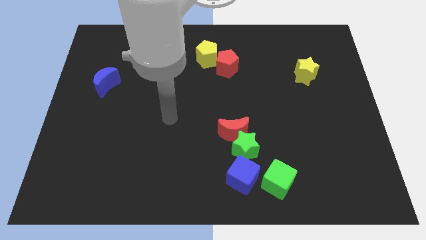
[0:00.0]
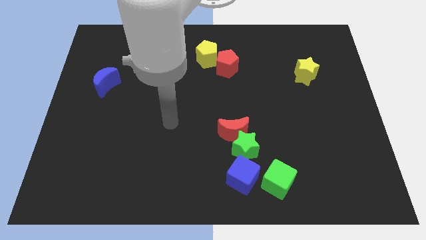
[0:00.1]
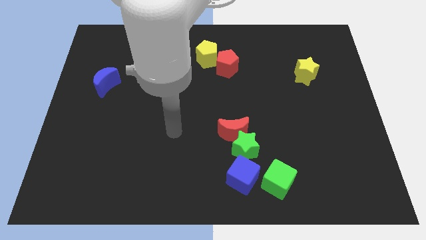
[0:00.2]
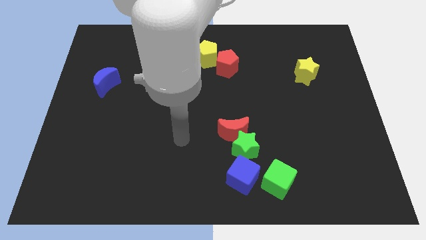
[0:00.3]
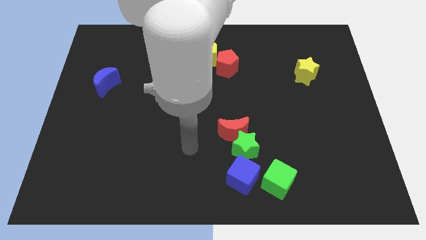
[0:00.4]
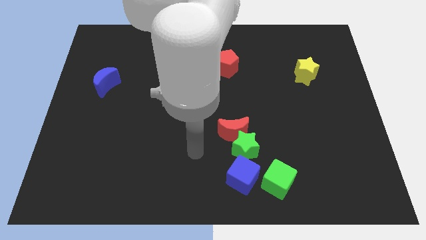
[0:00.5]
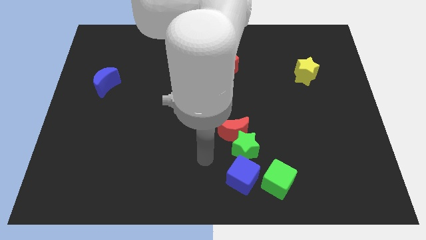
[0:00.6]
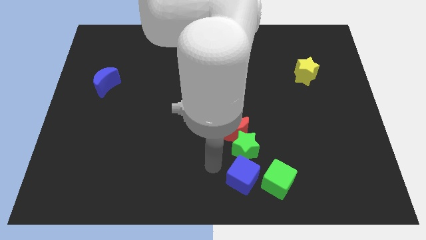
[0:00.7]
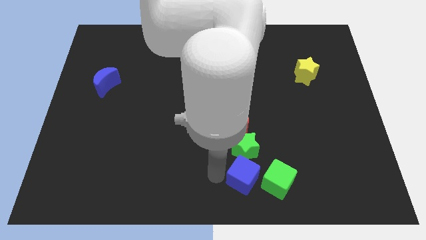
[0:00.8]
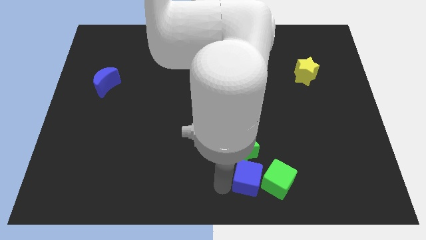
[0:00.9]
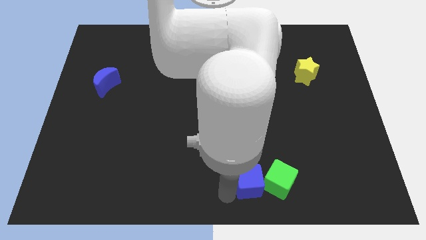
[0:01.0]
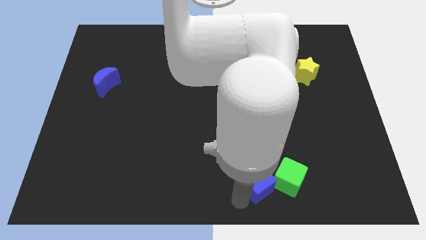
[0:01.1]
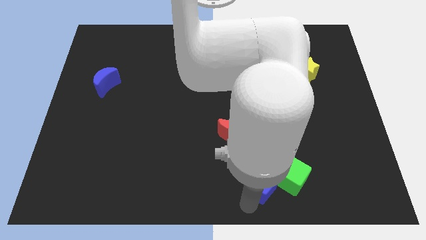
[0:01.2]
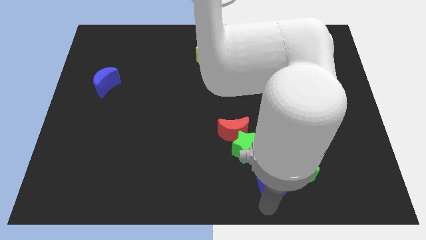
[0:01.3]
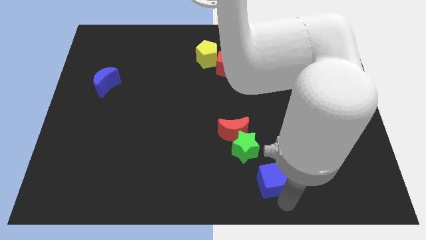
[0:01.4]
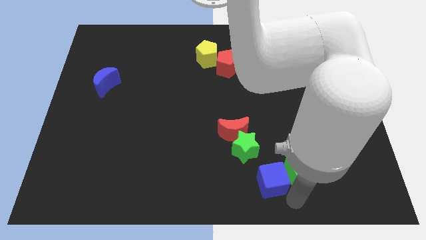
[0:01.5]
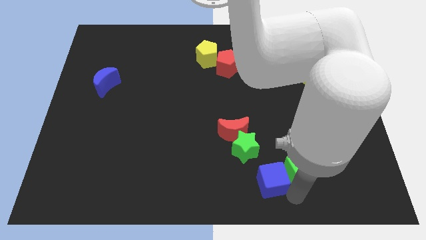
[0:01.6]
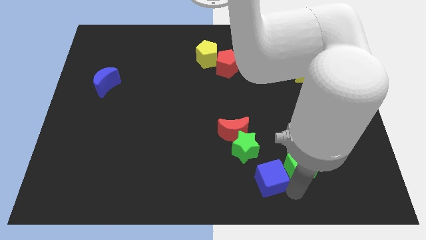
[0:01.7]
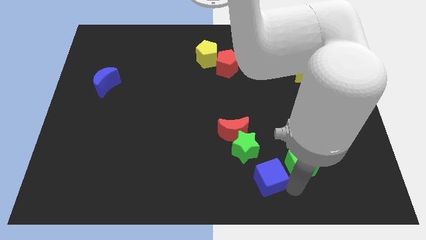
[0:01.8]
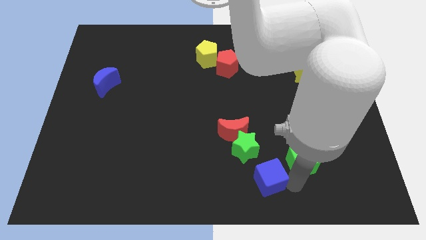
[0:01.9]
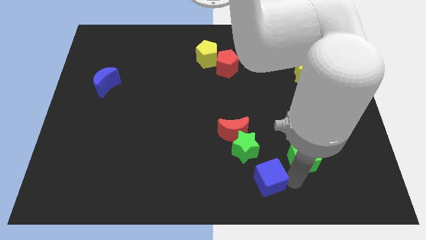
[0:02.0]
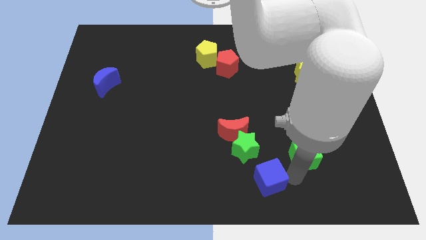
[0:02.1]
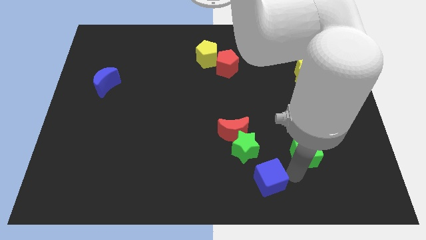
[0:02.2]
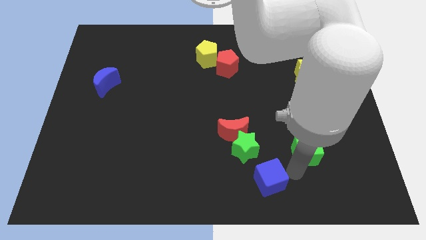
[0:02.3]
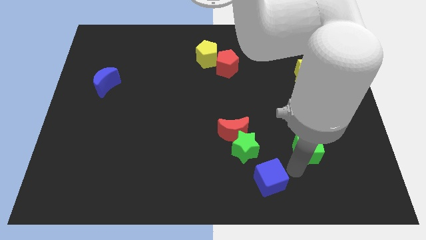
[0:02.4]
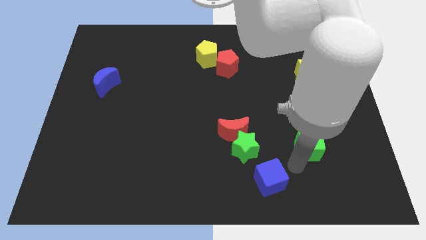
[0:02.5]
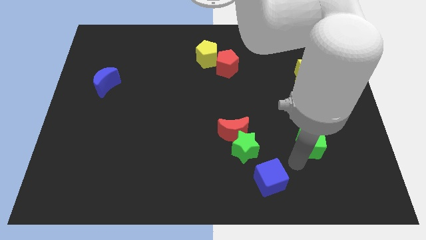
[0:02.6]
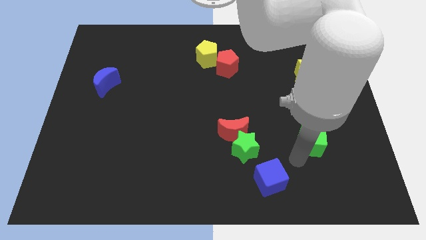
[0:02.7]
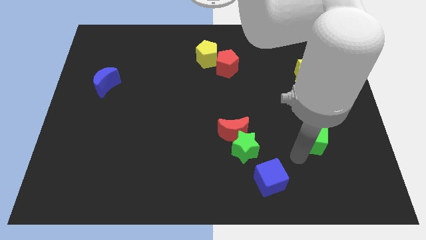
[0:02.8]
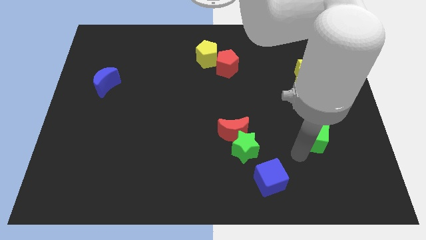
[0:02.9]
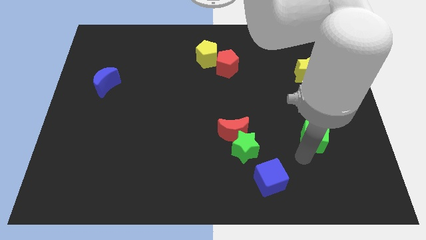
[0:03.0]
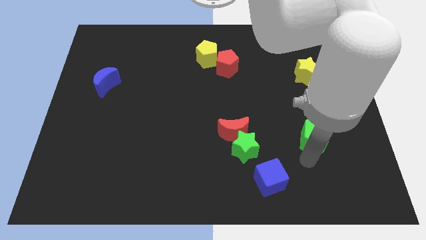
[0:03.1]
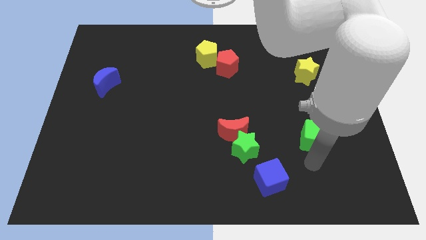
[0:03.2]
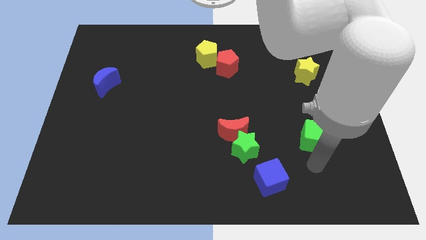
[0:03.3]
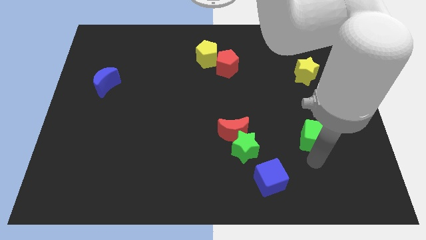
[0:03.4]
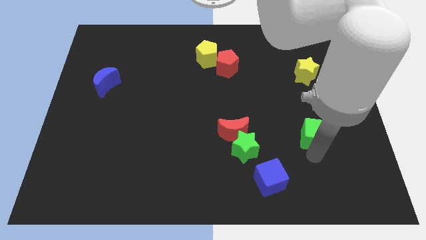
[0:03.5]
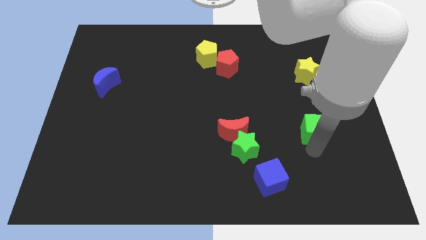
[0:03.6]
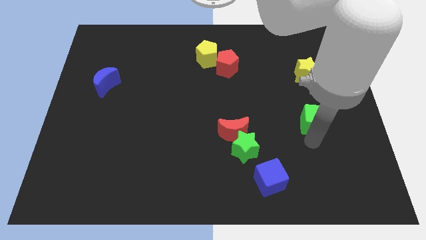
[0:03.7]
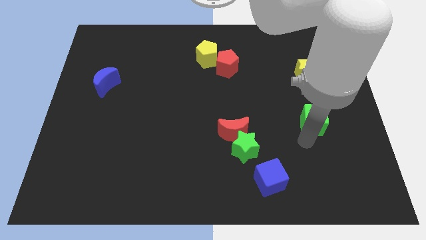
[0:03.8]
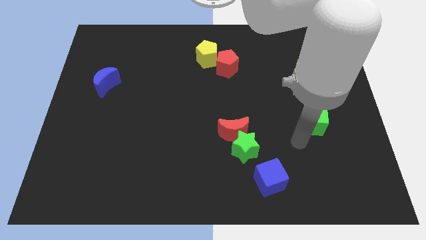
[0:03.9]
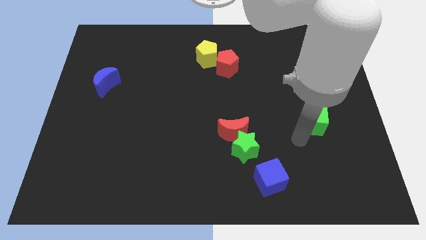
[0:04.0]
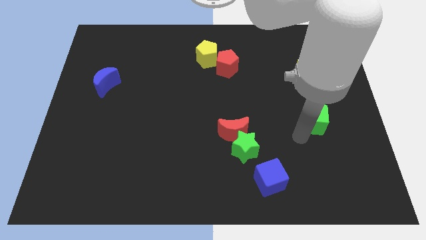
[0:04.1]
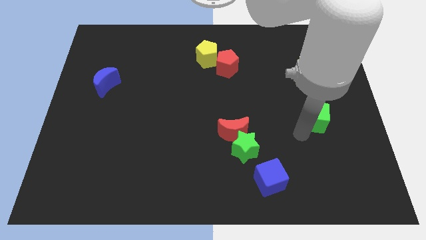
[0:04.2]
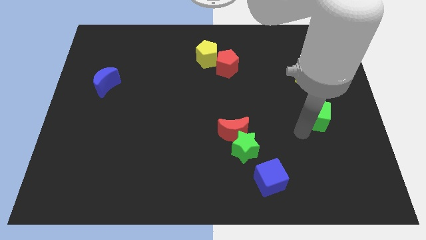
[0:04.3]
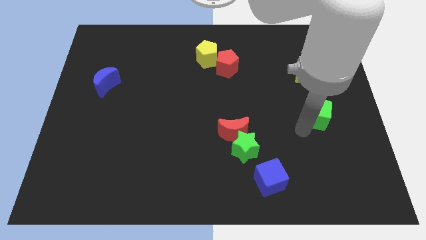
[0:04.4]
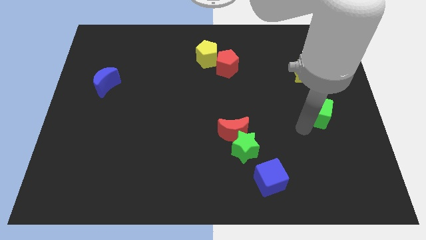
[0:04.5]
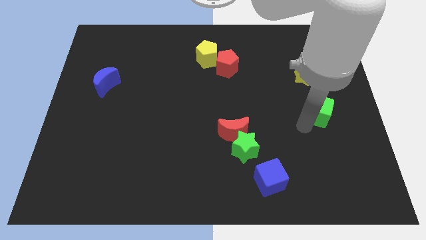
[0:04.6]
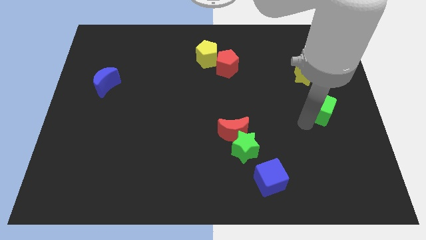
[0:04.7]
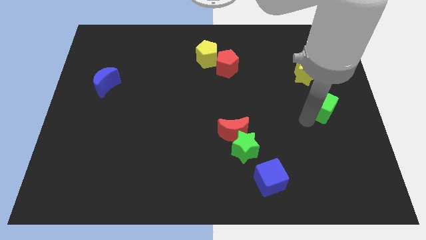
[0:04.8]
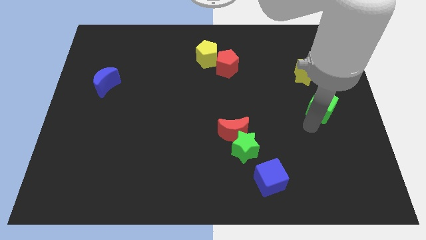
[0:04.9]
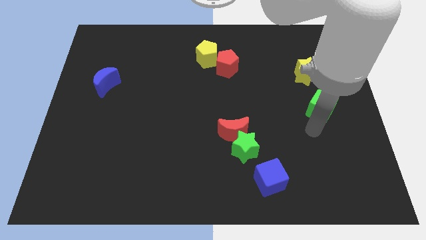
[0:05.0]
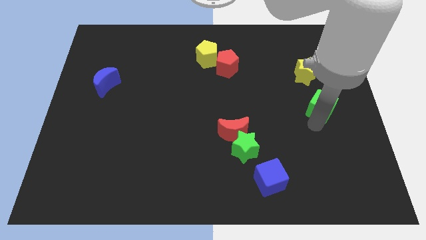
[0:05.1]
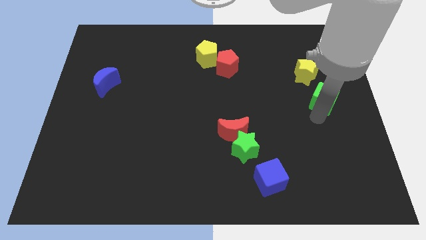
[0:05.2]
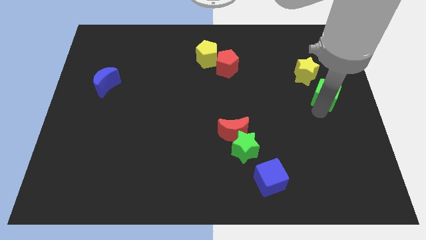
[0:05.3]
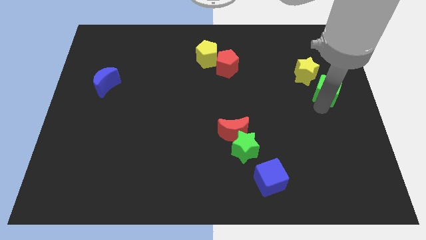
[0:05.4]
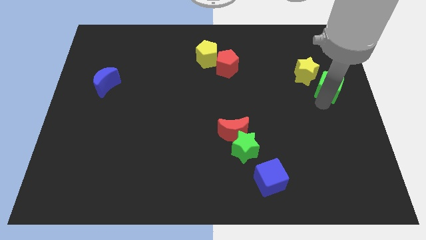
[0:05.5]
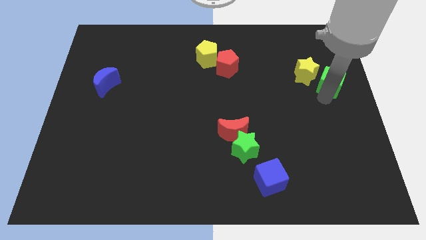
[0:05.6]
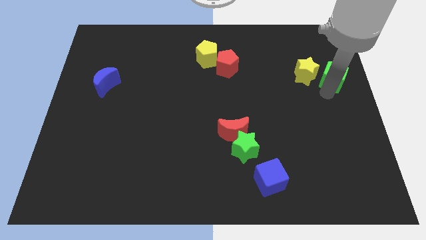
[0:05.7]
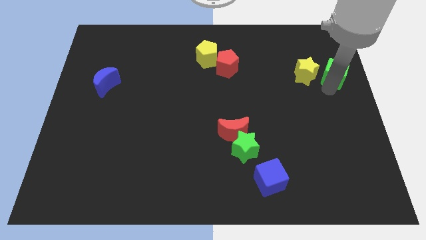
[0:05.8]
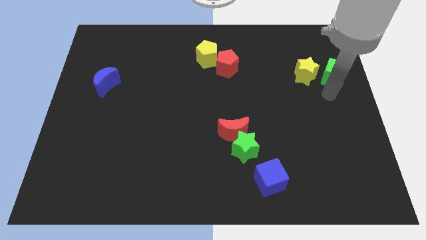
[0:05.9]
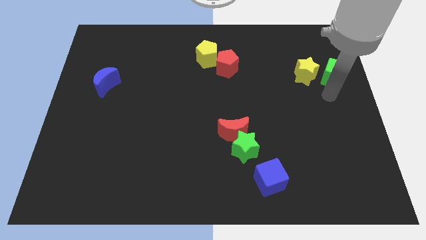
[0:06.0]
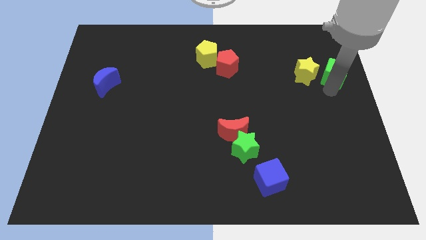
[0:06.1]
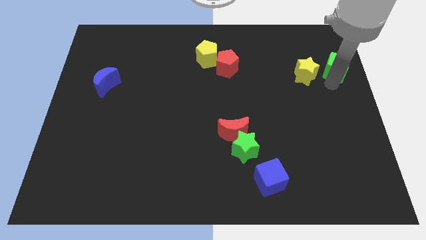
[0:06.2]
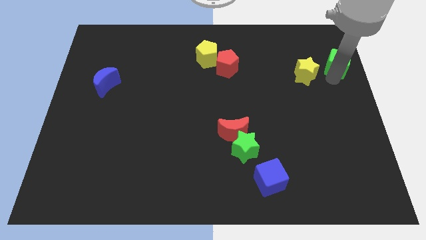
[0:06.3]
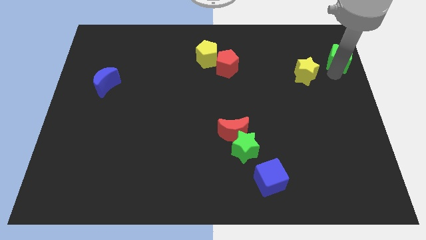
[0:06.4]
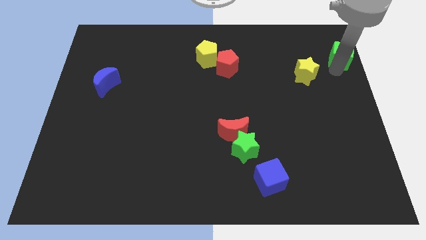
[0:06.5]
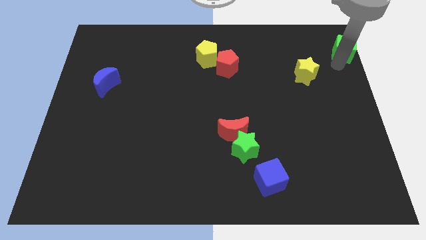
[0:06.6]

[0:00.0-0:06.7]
put the green cube to the top right
